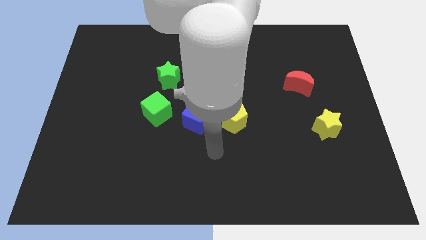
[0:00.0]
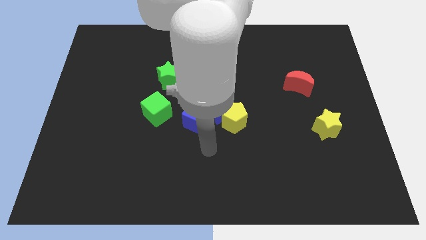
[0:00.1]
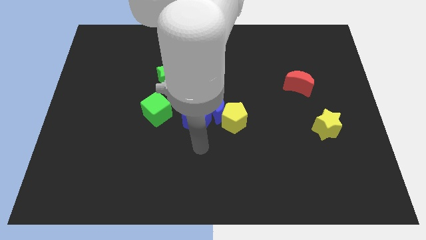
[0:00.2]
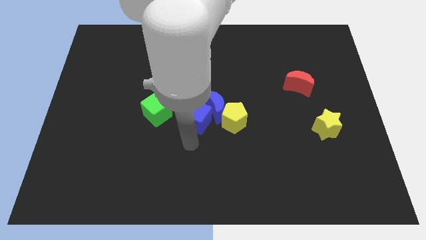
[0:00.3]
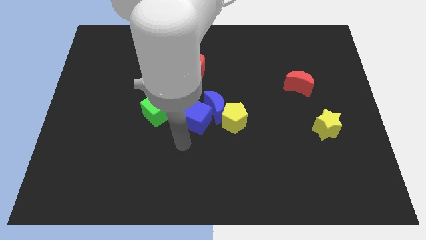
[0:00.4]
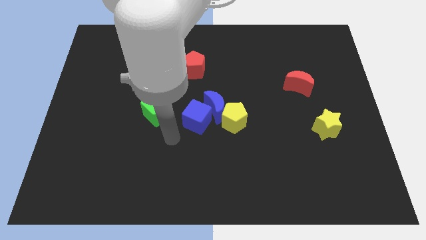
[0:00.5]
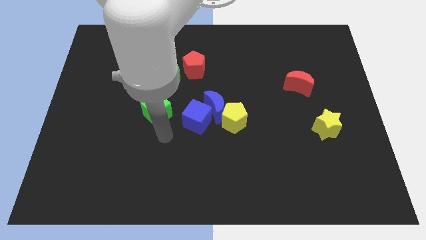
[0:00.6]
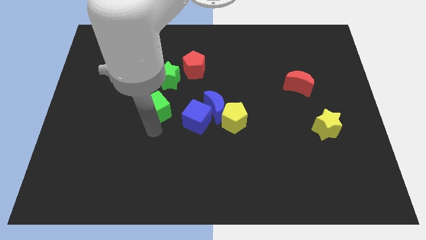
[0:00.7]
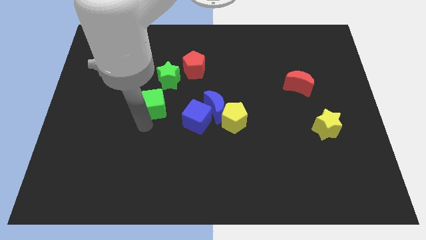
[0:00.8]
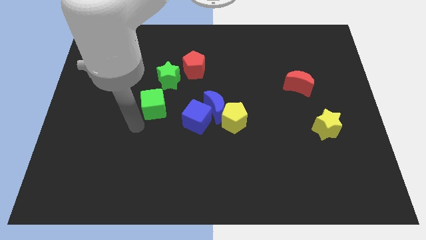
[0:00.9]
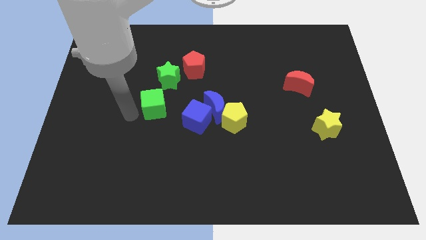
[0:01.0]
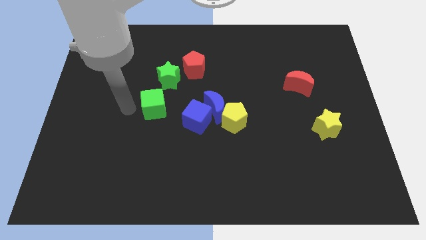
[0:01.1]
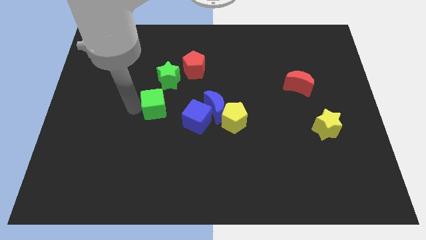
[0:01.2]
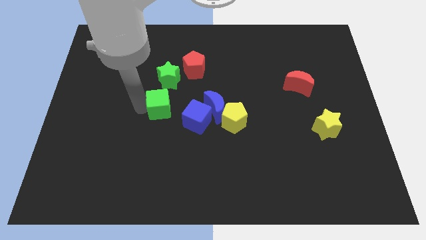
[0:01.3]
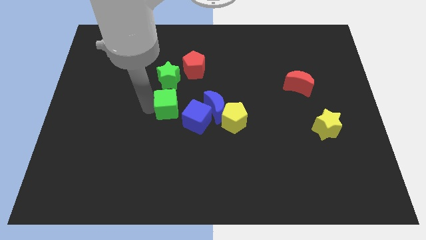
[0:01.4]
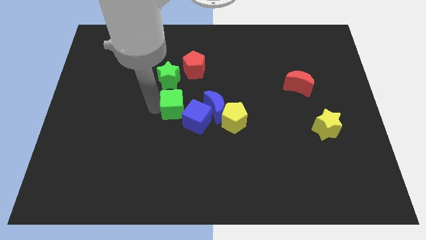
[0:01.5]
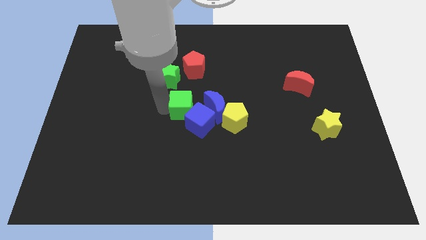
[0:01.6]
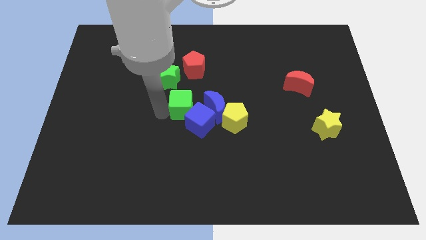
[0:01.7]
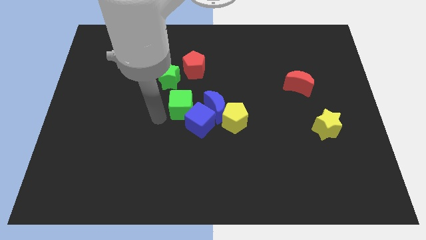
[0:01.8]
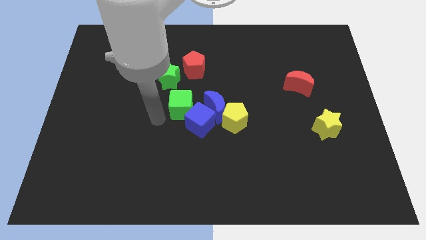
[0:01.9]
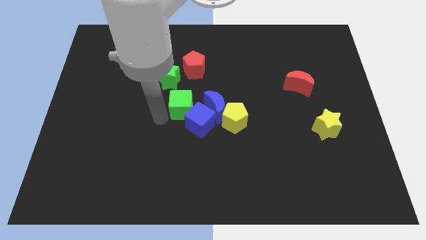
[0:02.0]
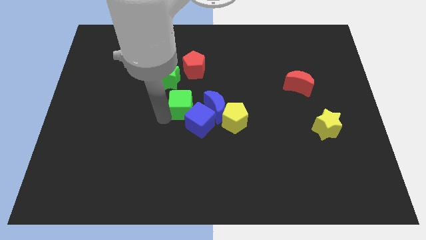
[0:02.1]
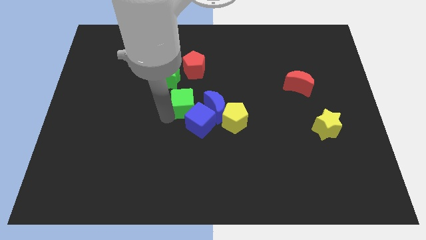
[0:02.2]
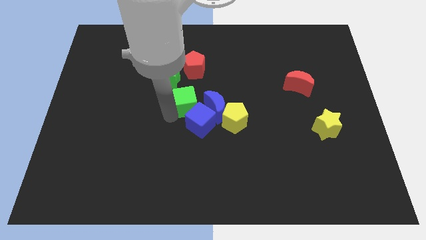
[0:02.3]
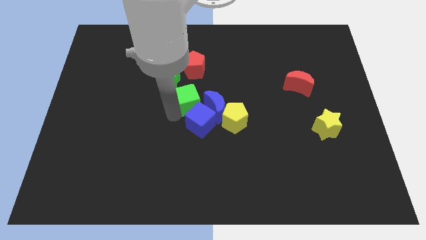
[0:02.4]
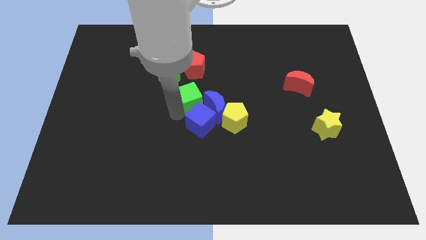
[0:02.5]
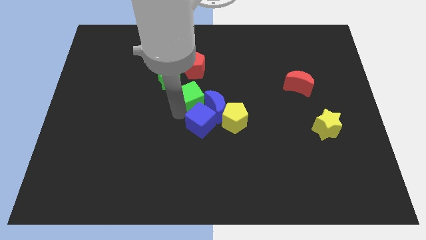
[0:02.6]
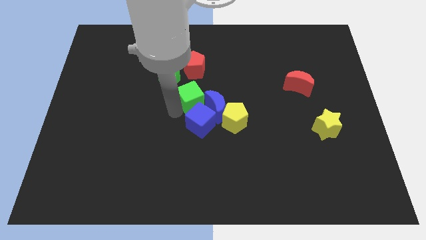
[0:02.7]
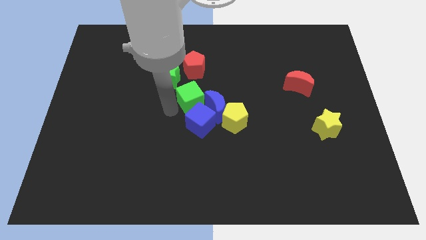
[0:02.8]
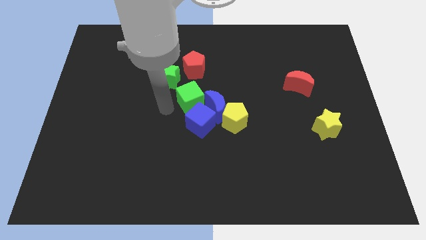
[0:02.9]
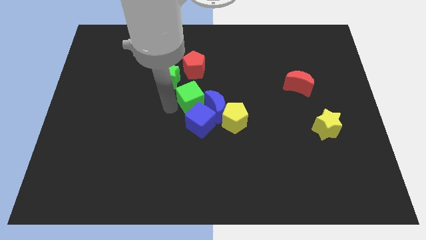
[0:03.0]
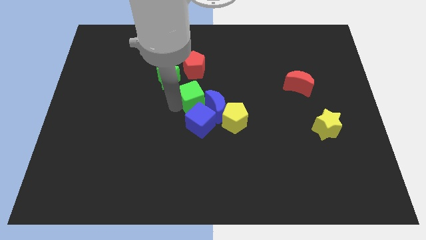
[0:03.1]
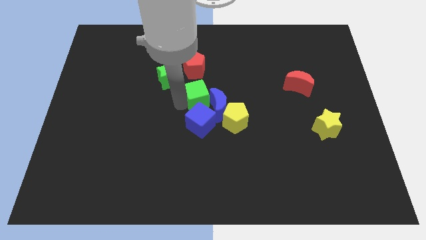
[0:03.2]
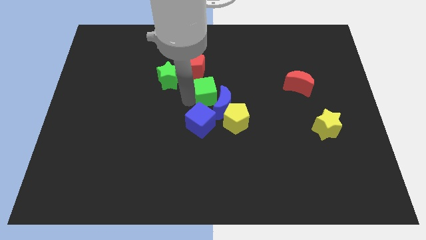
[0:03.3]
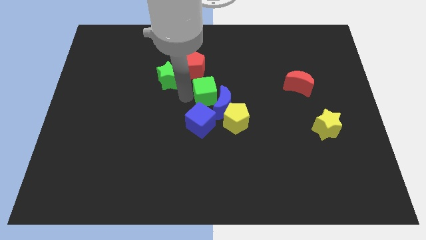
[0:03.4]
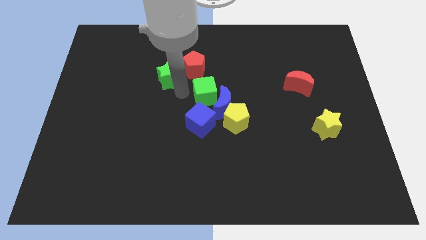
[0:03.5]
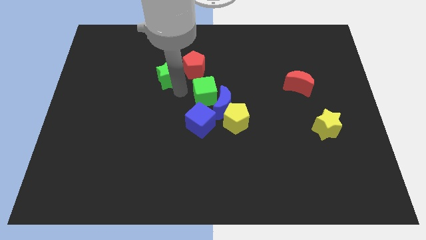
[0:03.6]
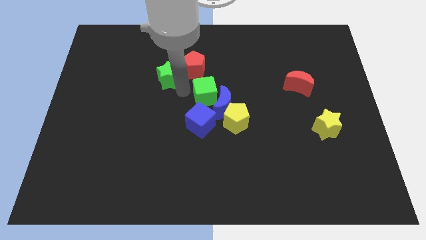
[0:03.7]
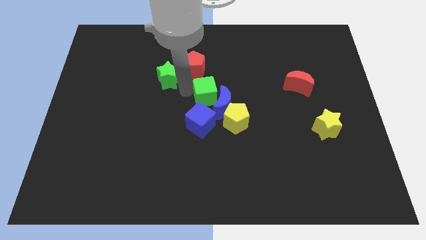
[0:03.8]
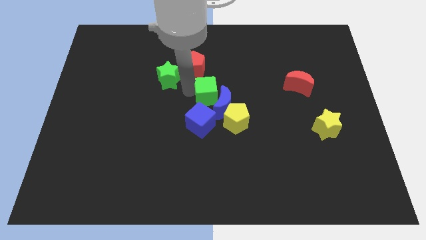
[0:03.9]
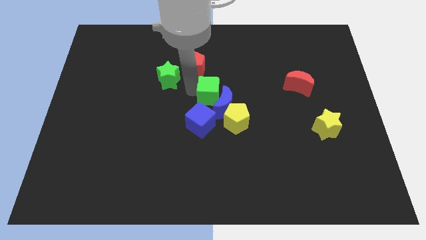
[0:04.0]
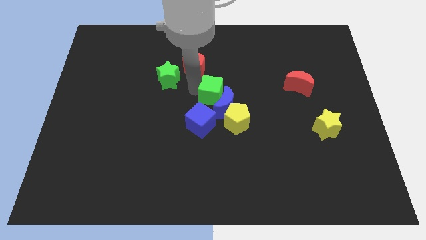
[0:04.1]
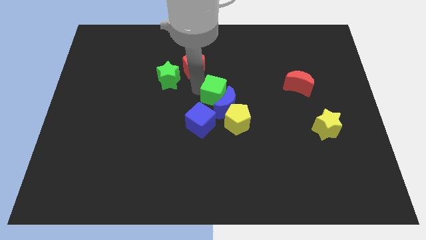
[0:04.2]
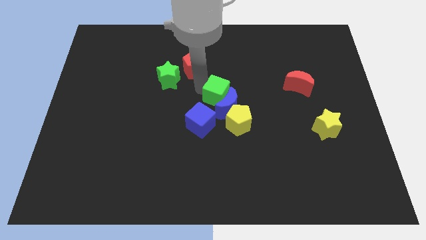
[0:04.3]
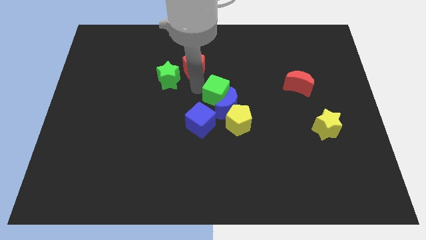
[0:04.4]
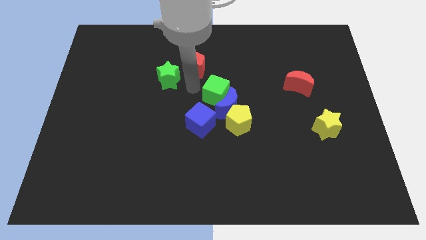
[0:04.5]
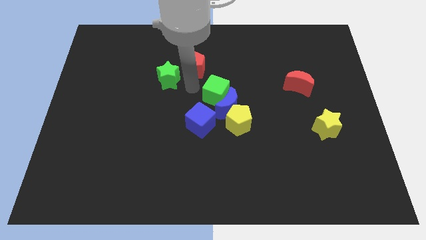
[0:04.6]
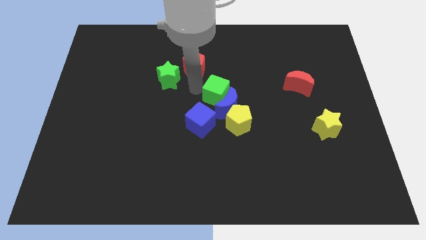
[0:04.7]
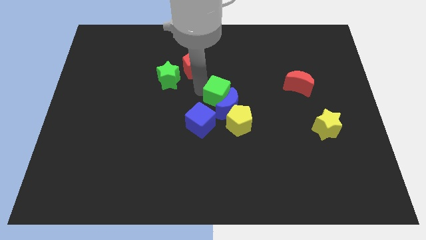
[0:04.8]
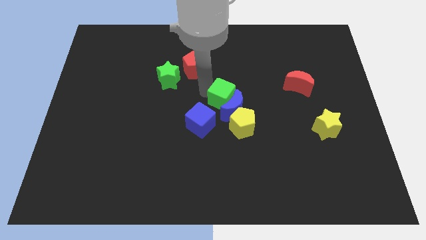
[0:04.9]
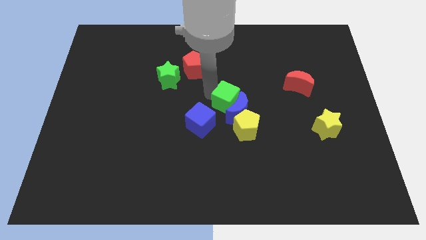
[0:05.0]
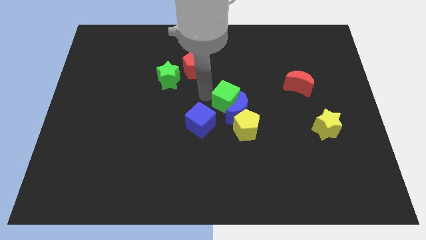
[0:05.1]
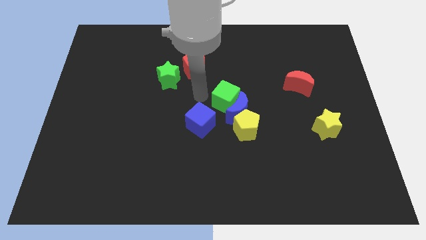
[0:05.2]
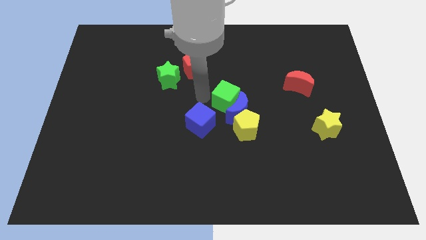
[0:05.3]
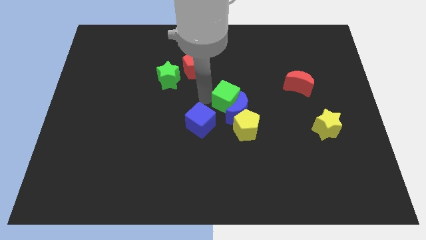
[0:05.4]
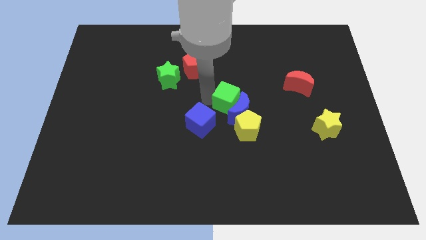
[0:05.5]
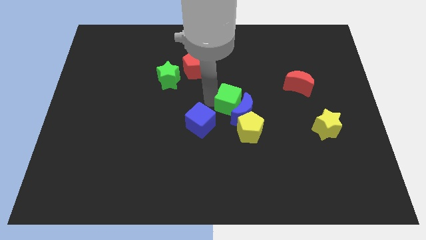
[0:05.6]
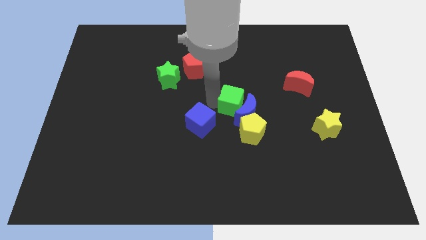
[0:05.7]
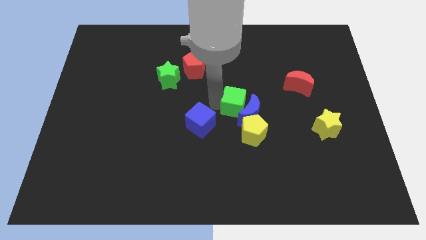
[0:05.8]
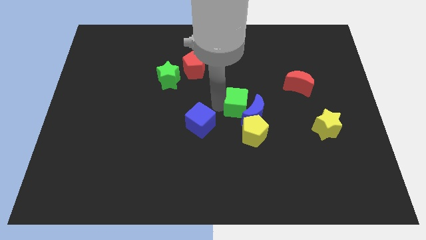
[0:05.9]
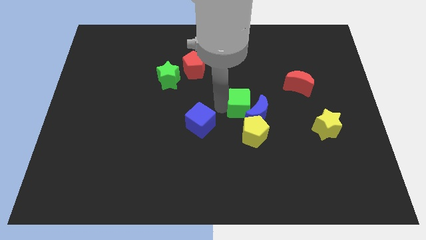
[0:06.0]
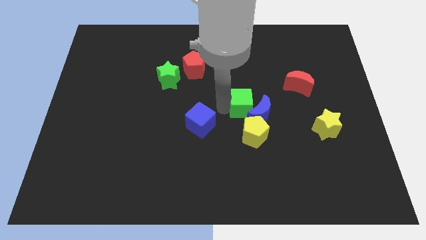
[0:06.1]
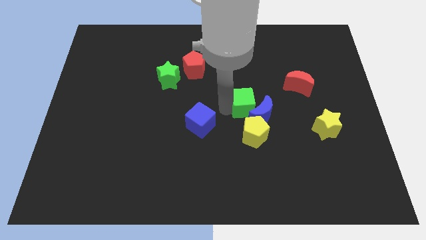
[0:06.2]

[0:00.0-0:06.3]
slide the green cube to the right

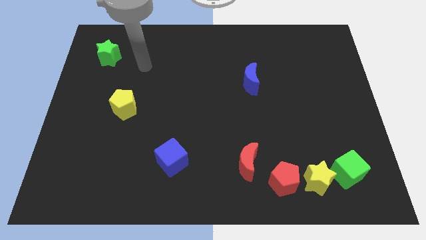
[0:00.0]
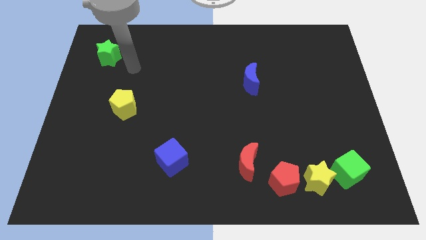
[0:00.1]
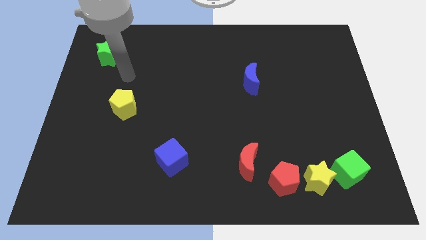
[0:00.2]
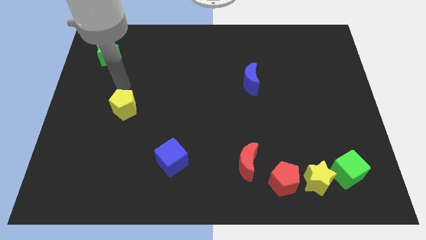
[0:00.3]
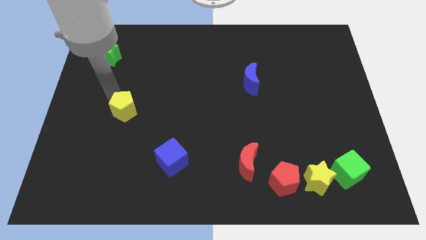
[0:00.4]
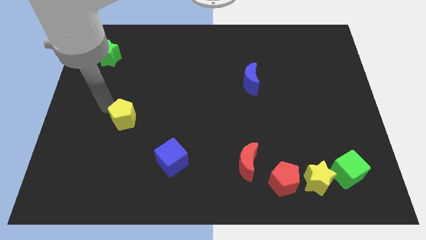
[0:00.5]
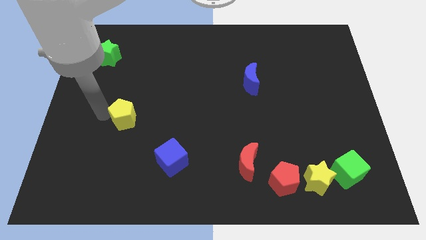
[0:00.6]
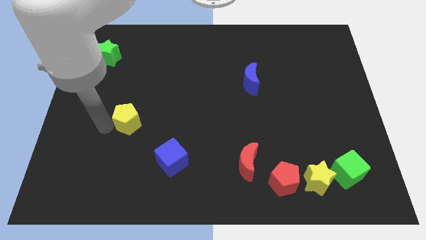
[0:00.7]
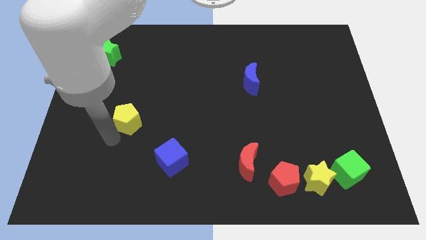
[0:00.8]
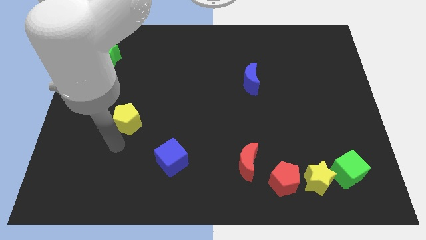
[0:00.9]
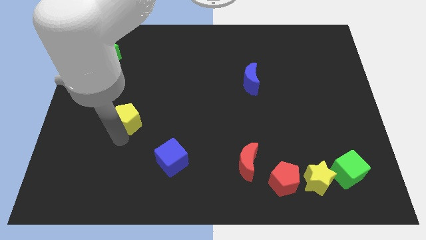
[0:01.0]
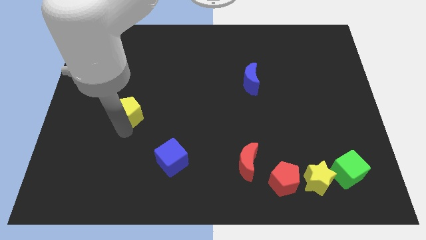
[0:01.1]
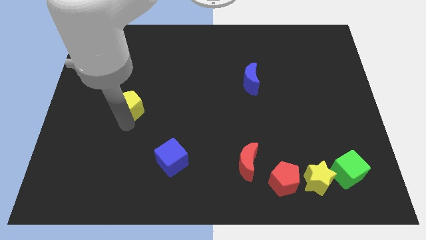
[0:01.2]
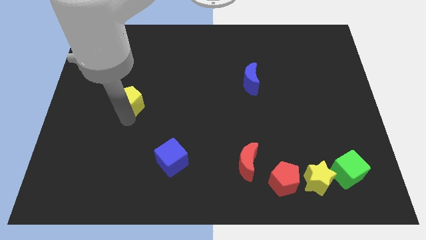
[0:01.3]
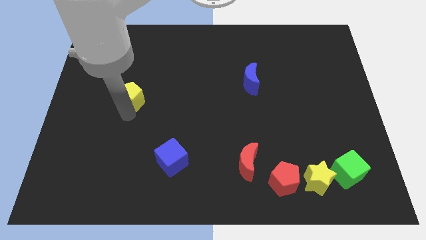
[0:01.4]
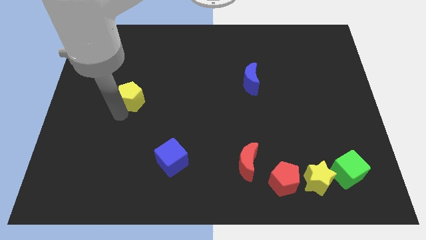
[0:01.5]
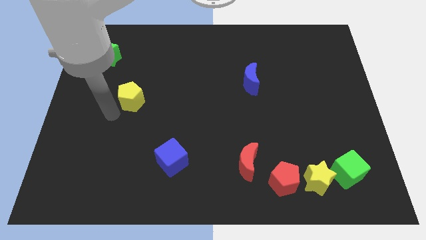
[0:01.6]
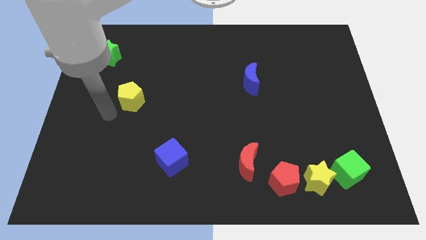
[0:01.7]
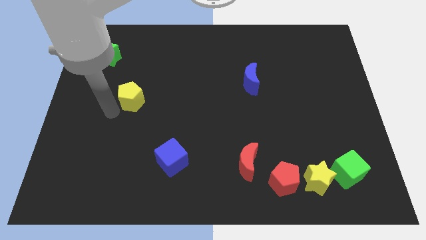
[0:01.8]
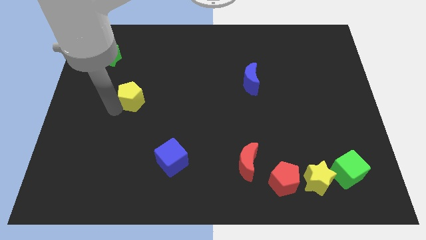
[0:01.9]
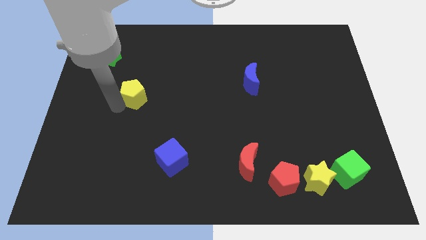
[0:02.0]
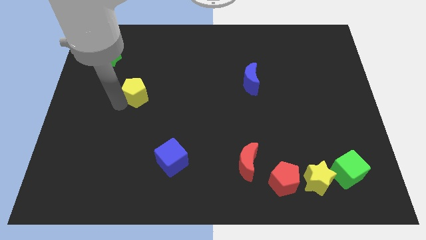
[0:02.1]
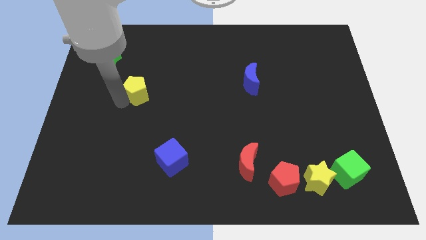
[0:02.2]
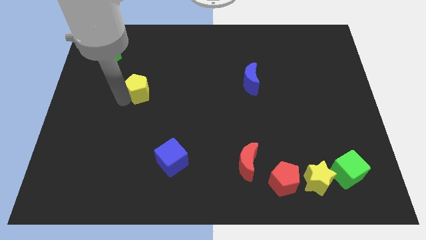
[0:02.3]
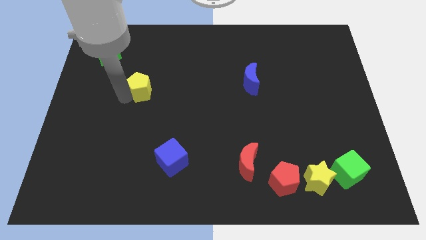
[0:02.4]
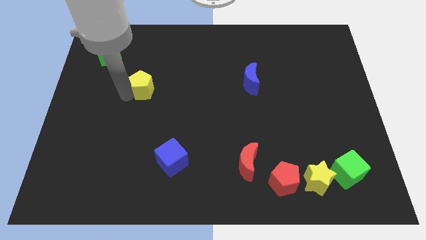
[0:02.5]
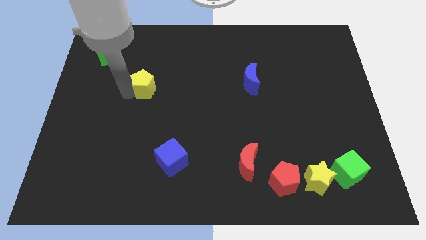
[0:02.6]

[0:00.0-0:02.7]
push the yellow pentagon upwards and to the right a little
